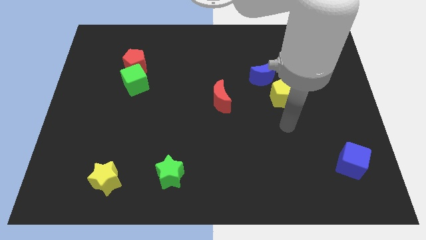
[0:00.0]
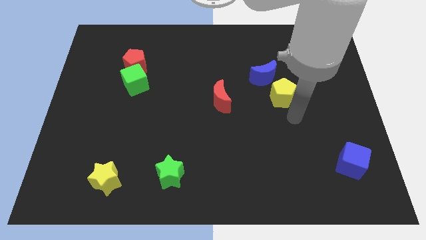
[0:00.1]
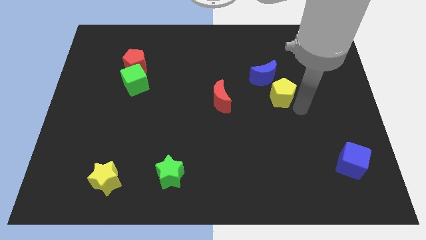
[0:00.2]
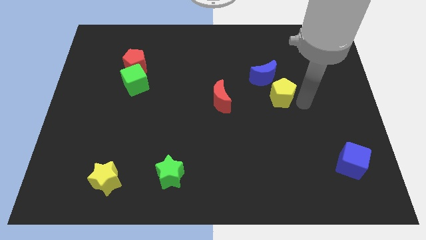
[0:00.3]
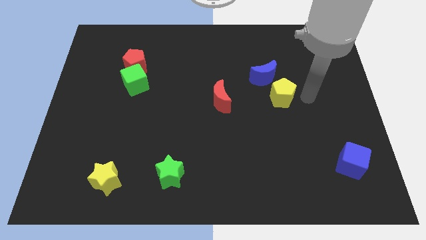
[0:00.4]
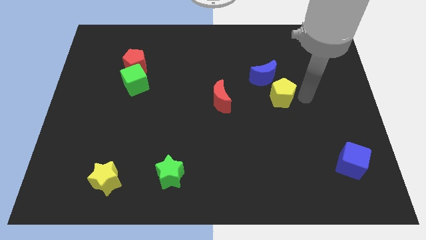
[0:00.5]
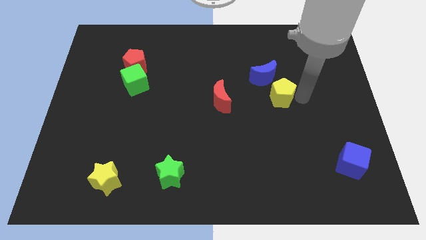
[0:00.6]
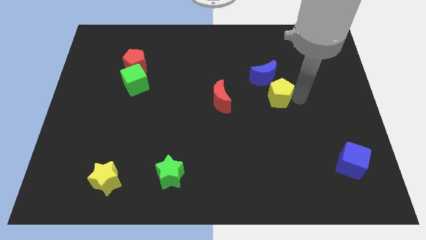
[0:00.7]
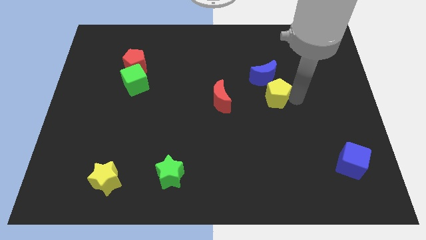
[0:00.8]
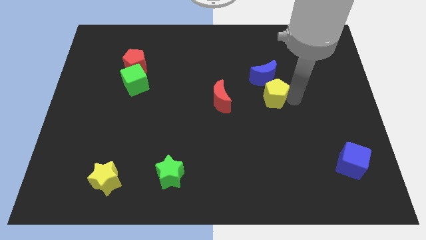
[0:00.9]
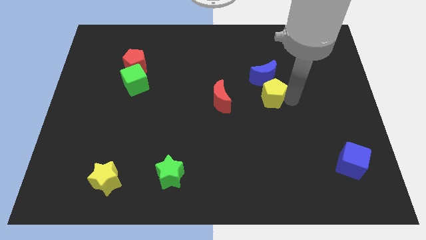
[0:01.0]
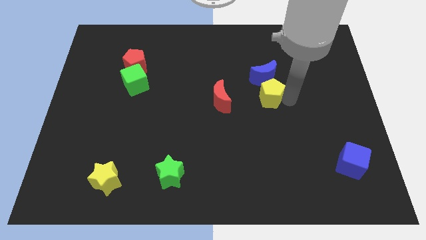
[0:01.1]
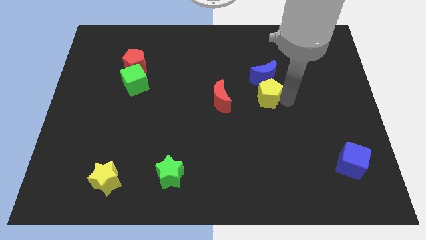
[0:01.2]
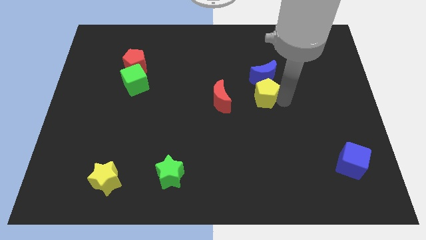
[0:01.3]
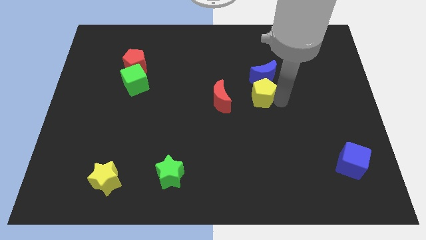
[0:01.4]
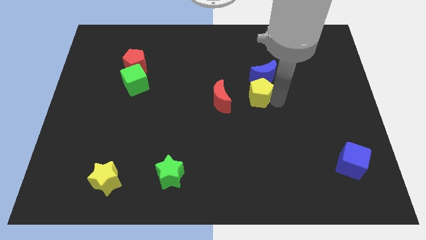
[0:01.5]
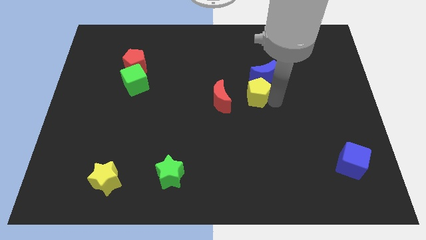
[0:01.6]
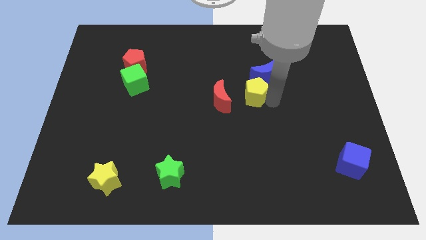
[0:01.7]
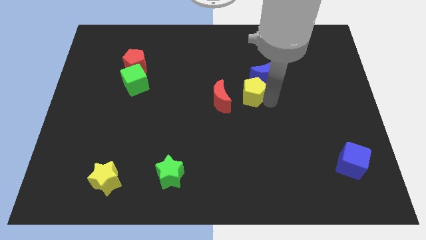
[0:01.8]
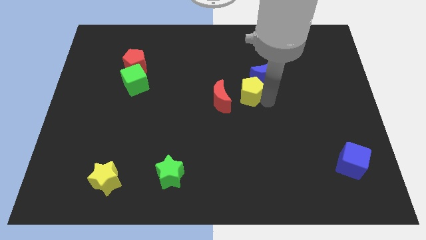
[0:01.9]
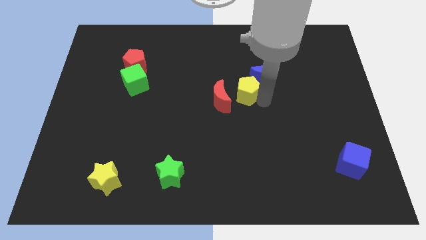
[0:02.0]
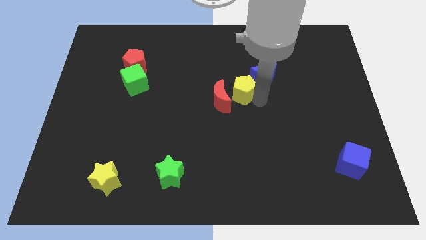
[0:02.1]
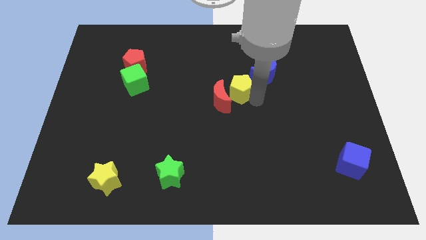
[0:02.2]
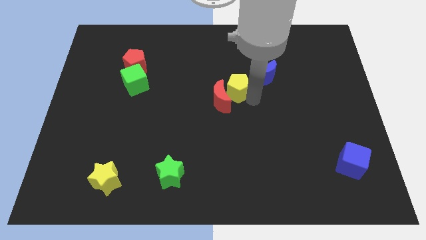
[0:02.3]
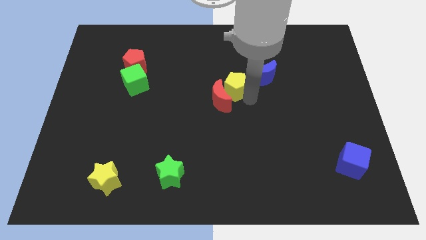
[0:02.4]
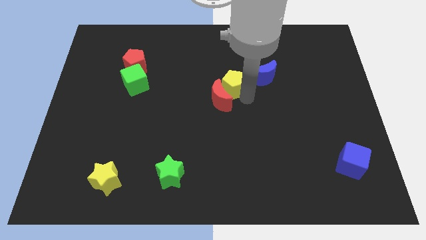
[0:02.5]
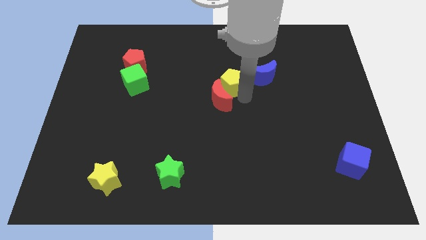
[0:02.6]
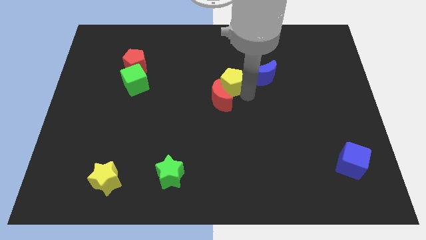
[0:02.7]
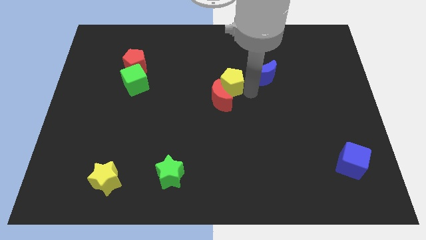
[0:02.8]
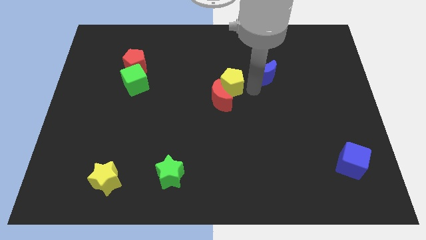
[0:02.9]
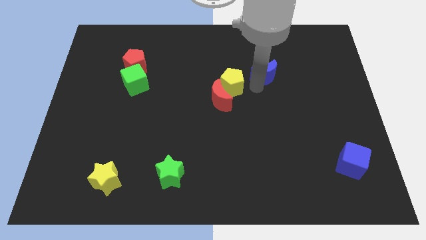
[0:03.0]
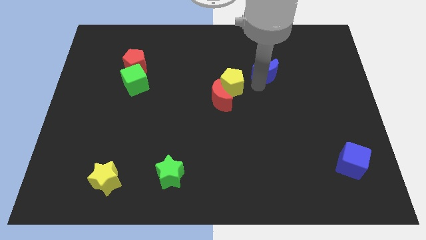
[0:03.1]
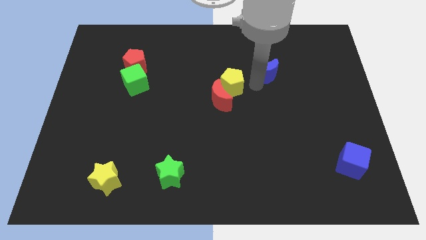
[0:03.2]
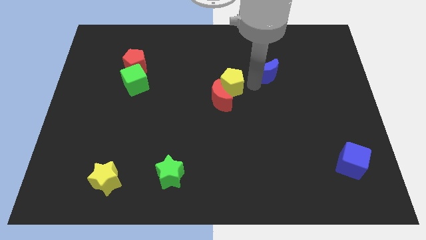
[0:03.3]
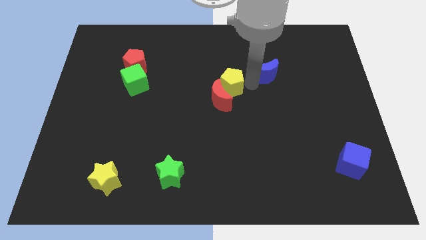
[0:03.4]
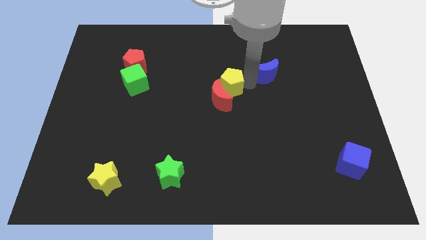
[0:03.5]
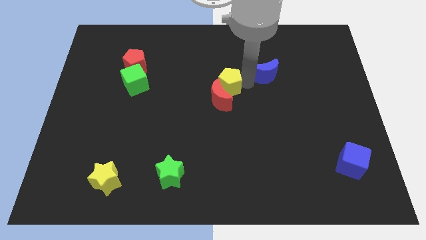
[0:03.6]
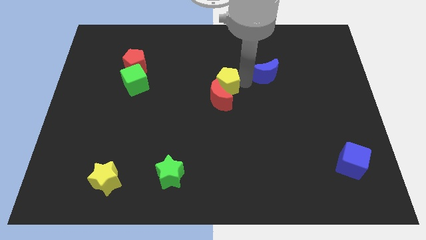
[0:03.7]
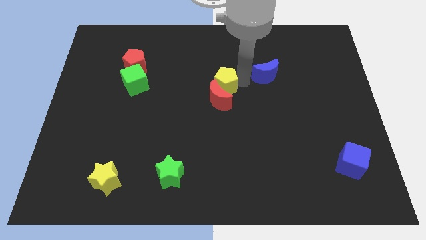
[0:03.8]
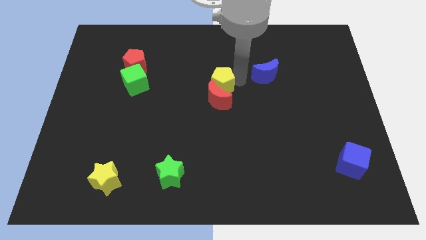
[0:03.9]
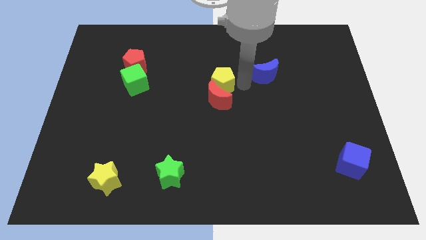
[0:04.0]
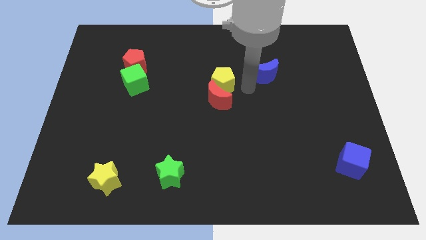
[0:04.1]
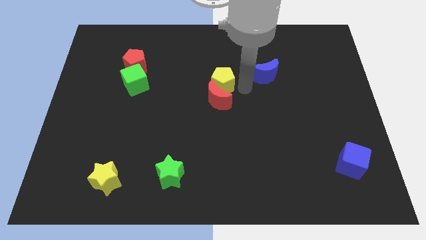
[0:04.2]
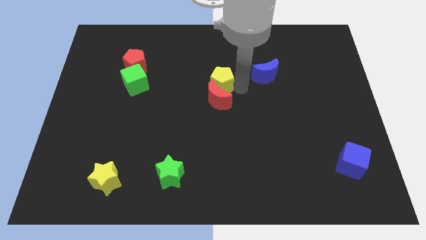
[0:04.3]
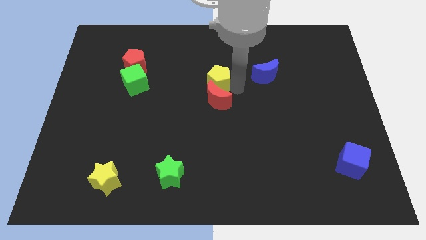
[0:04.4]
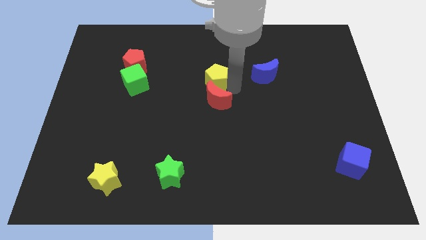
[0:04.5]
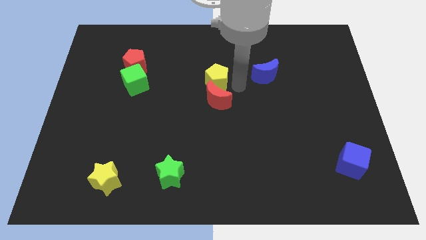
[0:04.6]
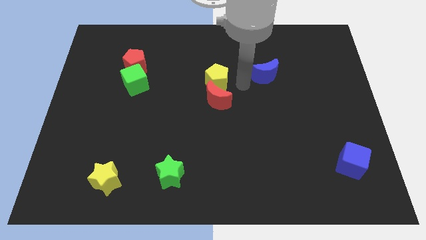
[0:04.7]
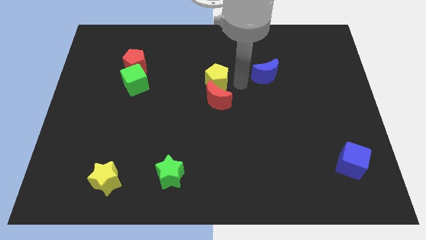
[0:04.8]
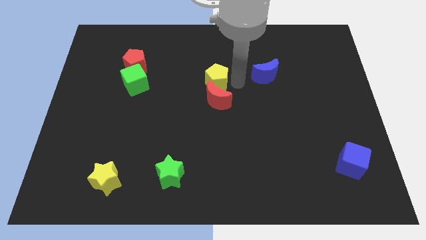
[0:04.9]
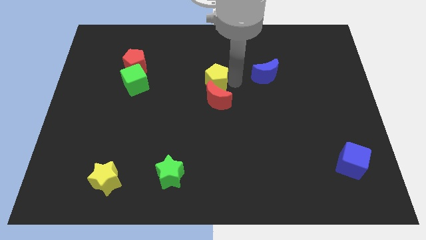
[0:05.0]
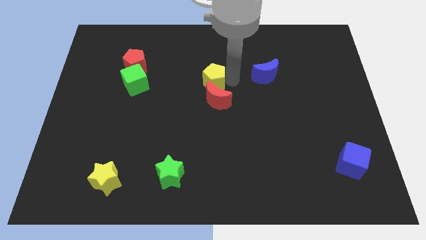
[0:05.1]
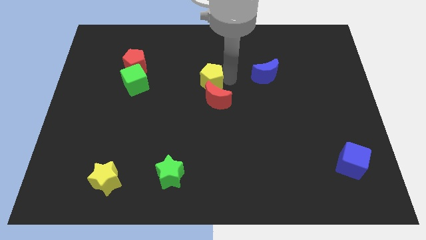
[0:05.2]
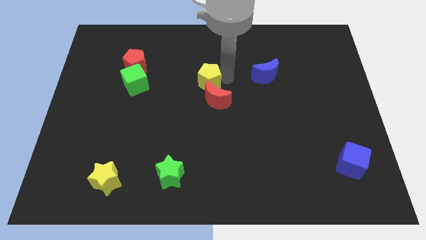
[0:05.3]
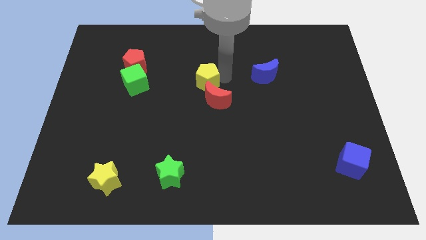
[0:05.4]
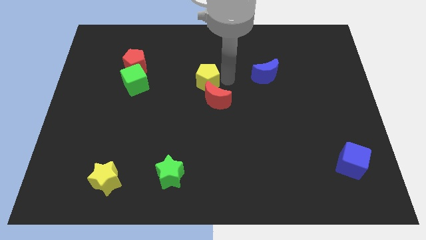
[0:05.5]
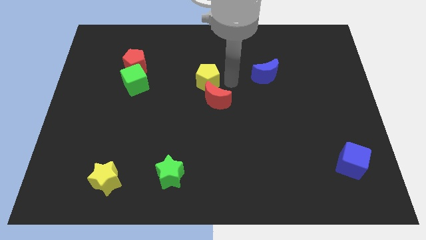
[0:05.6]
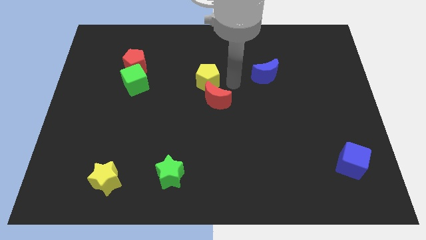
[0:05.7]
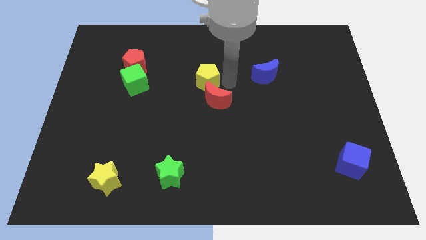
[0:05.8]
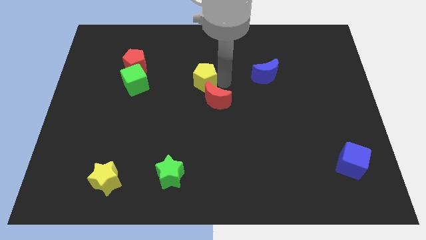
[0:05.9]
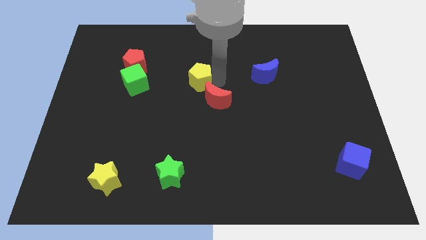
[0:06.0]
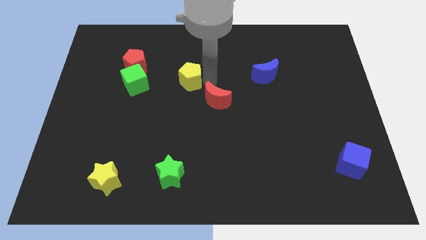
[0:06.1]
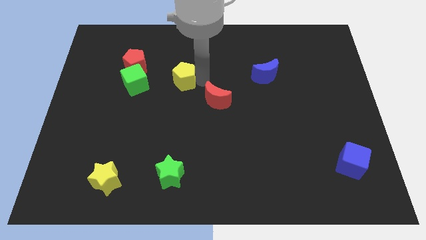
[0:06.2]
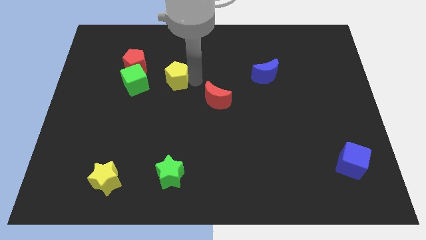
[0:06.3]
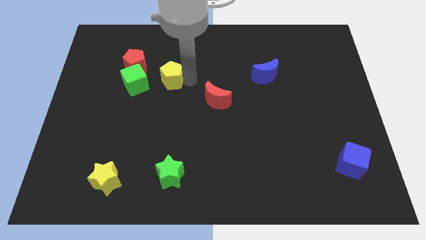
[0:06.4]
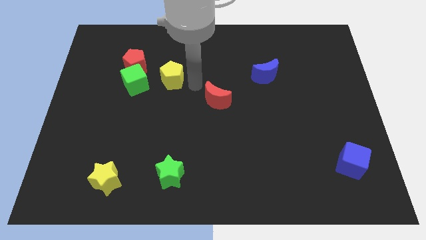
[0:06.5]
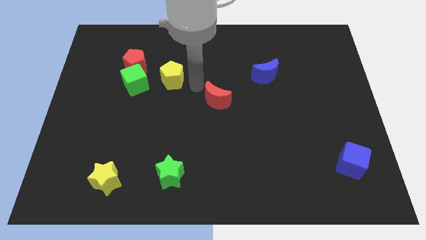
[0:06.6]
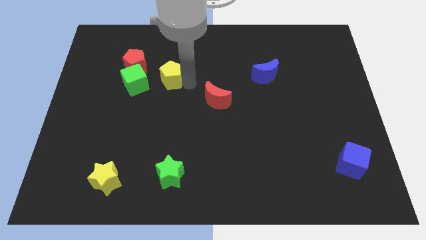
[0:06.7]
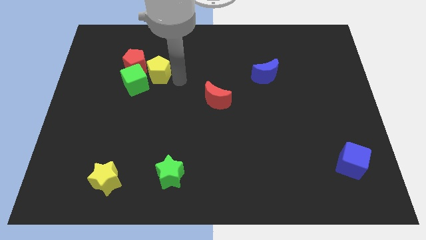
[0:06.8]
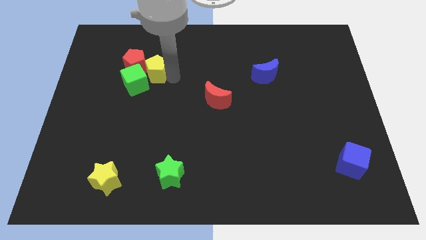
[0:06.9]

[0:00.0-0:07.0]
put the yellow pentagon close to the red pentagon

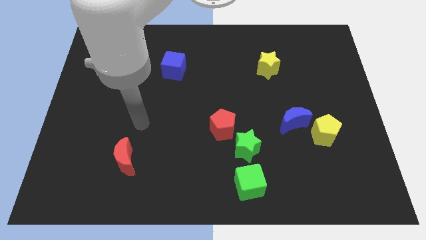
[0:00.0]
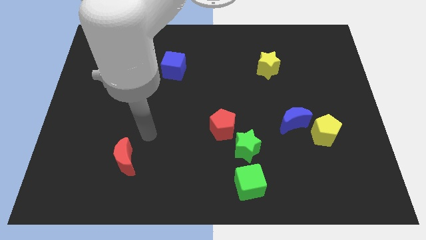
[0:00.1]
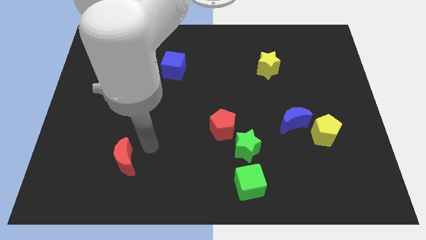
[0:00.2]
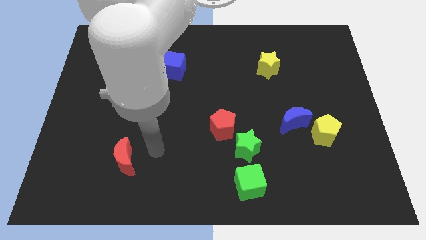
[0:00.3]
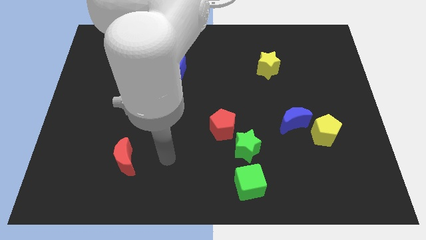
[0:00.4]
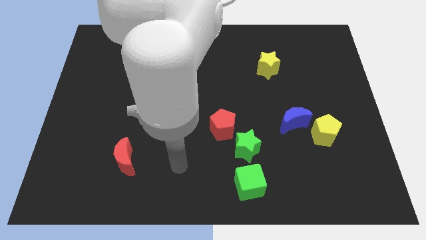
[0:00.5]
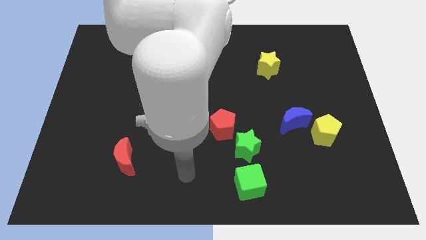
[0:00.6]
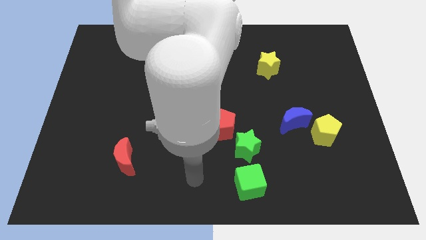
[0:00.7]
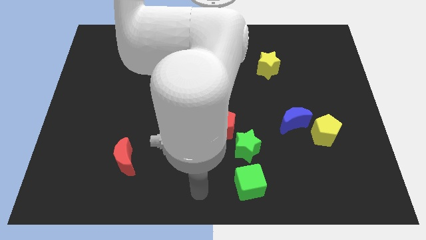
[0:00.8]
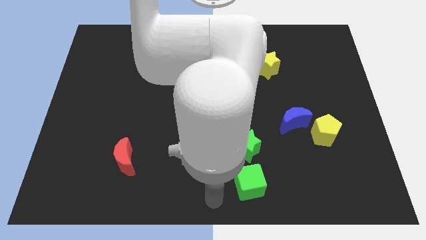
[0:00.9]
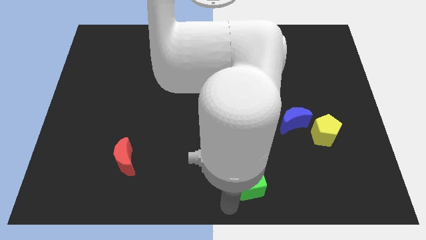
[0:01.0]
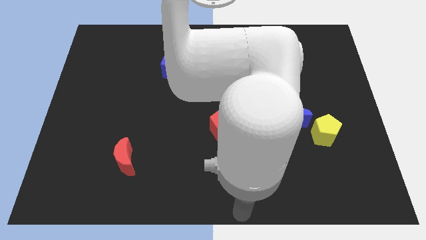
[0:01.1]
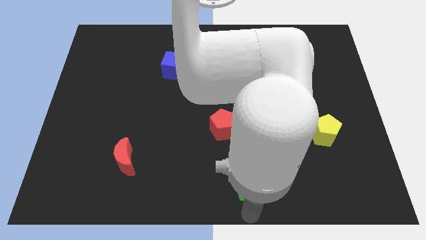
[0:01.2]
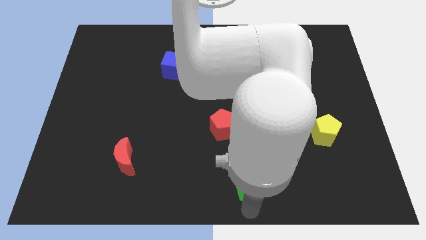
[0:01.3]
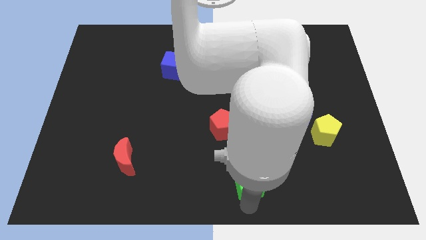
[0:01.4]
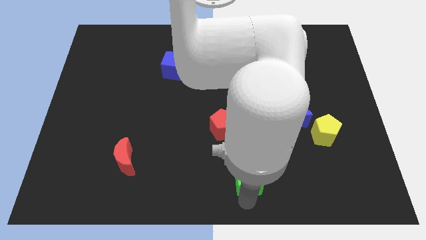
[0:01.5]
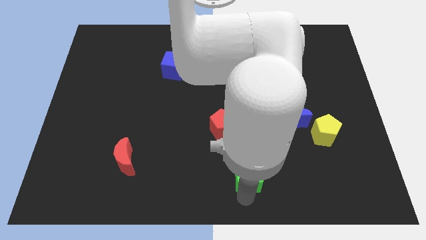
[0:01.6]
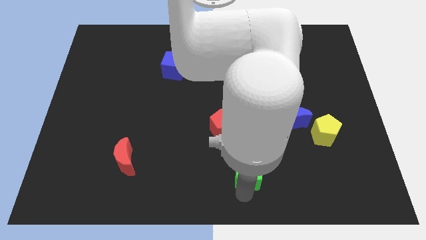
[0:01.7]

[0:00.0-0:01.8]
push the green cube close to the green star
